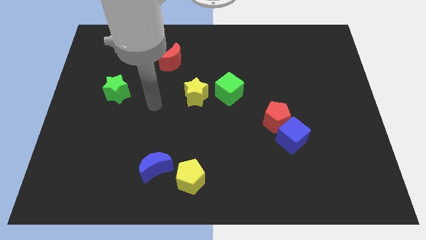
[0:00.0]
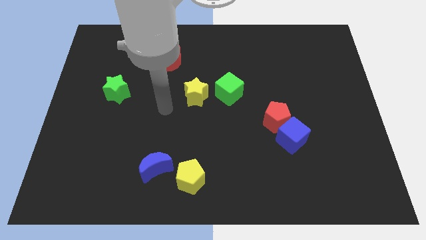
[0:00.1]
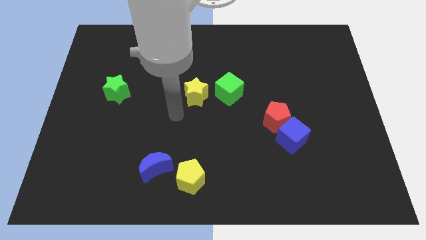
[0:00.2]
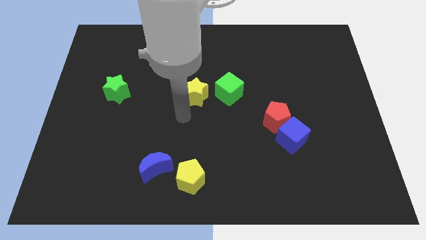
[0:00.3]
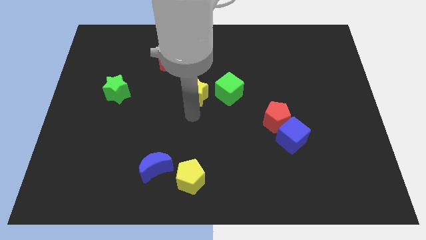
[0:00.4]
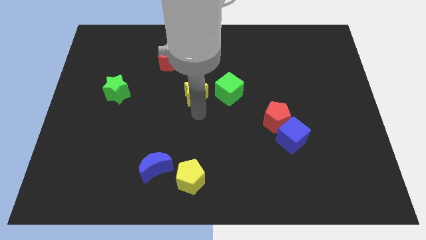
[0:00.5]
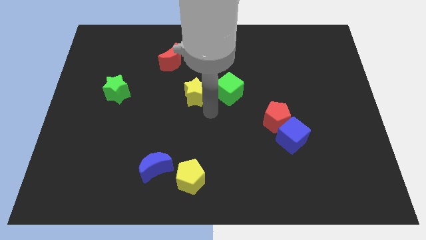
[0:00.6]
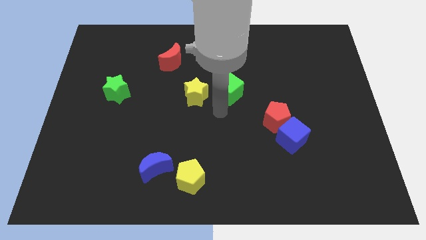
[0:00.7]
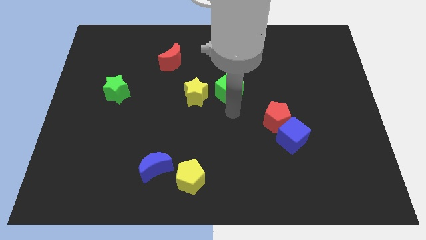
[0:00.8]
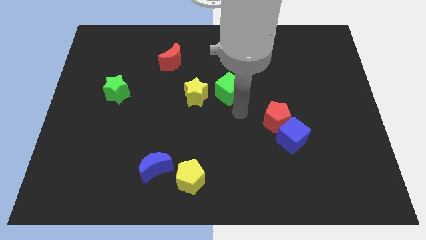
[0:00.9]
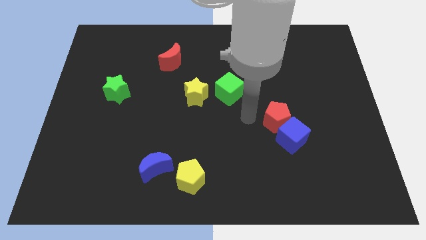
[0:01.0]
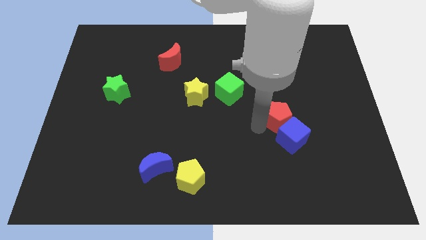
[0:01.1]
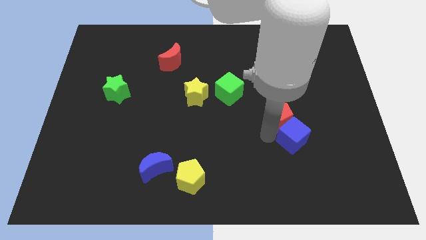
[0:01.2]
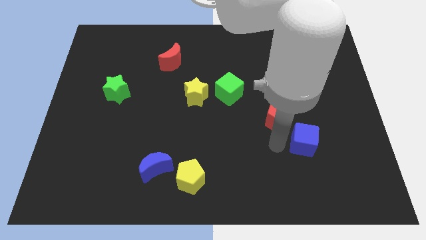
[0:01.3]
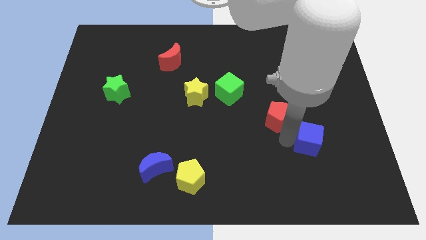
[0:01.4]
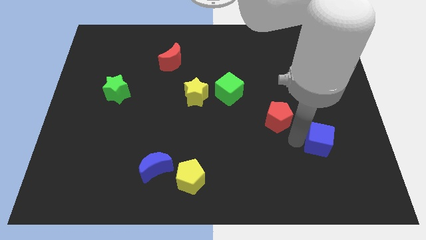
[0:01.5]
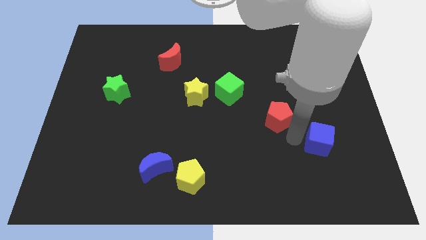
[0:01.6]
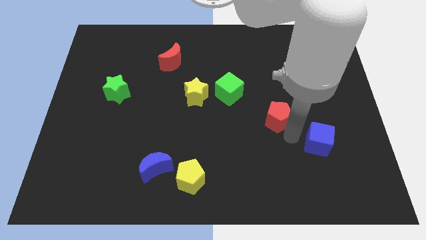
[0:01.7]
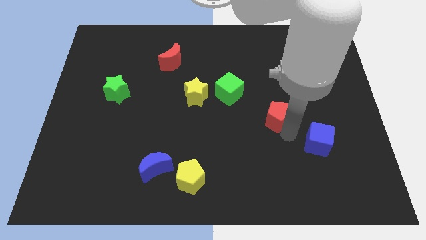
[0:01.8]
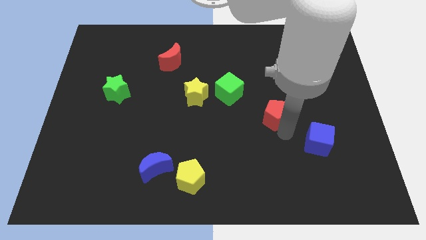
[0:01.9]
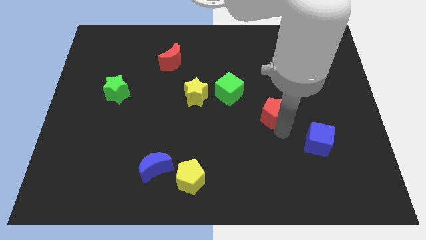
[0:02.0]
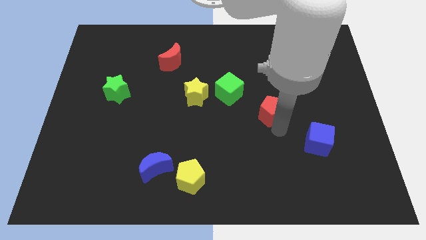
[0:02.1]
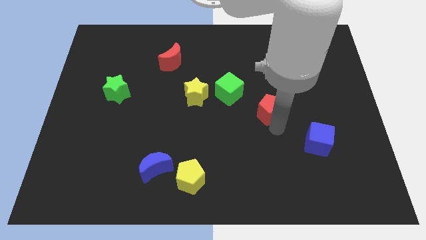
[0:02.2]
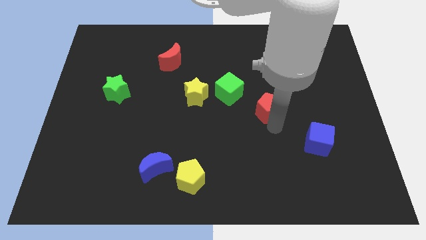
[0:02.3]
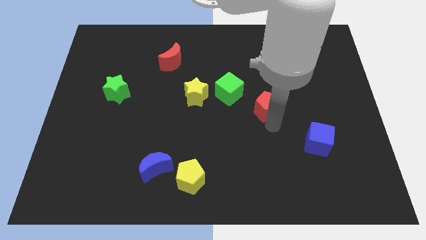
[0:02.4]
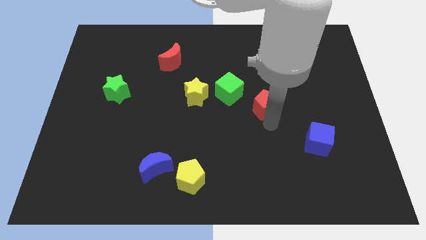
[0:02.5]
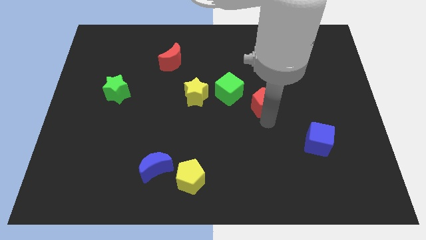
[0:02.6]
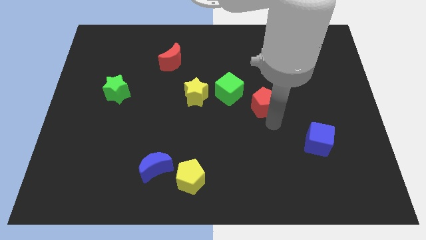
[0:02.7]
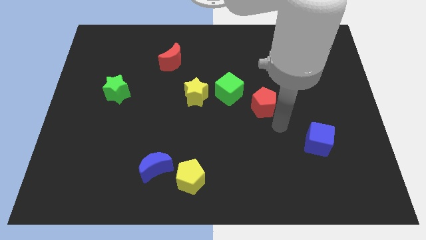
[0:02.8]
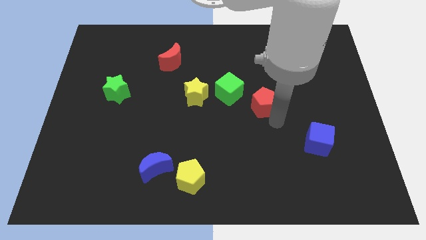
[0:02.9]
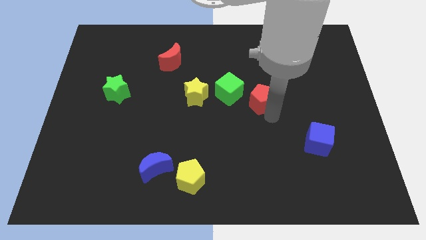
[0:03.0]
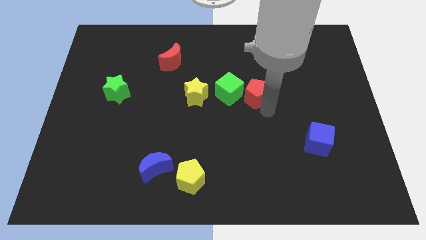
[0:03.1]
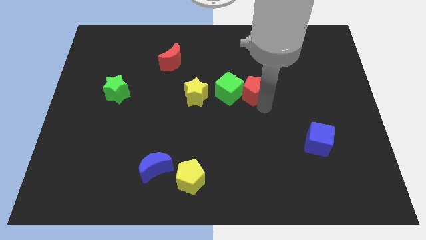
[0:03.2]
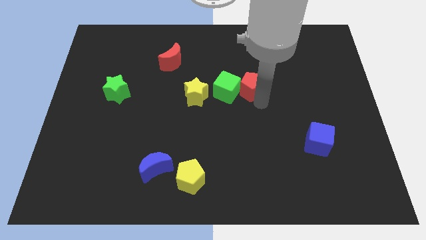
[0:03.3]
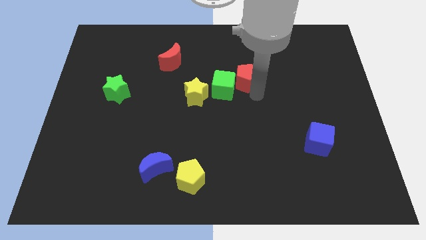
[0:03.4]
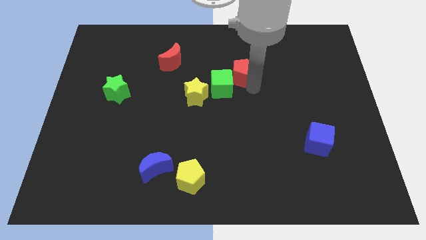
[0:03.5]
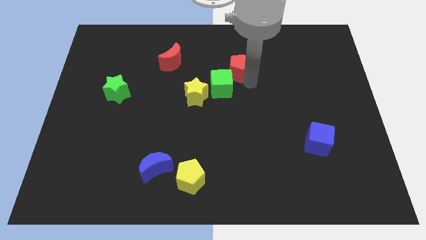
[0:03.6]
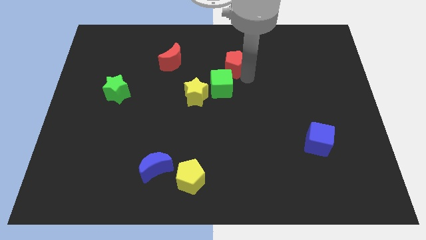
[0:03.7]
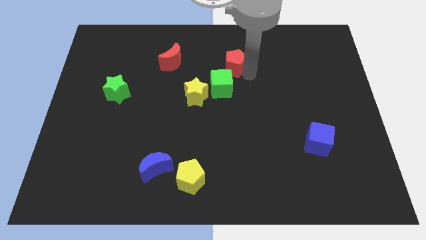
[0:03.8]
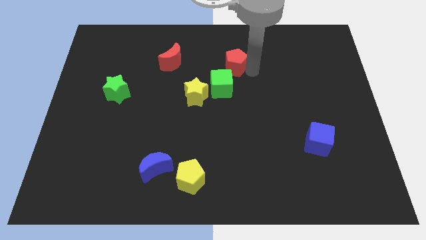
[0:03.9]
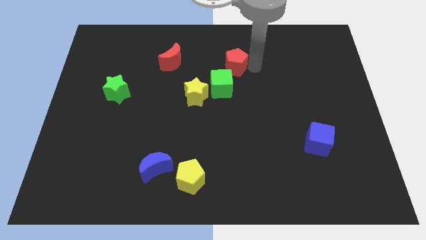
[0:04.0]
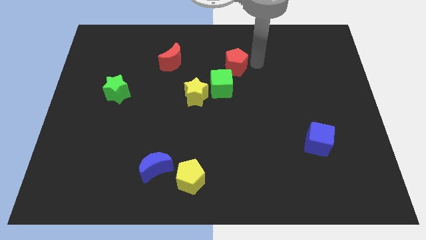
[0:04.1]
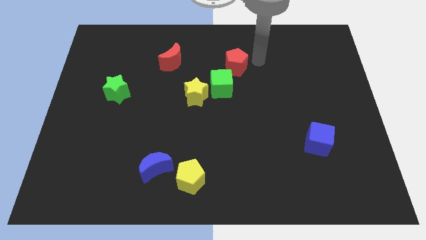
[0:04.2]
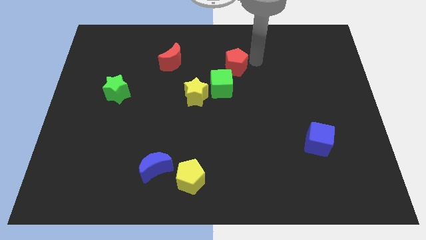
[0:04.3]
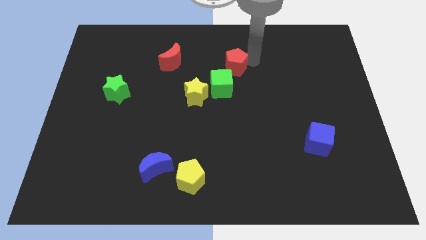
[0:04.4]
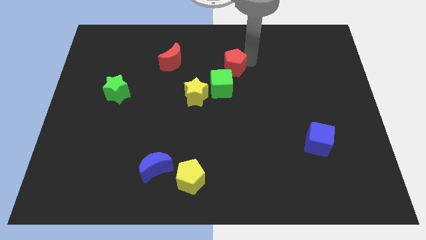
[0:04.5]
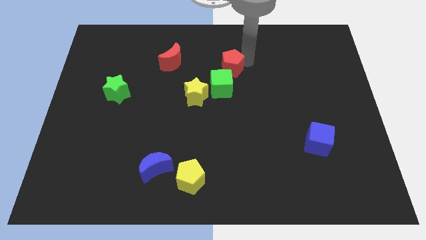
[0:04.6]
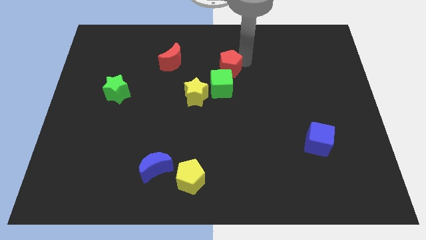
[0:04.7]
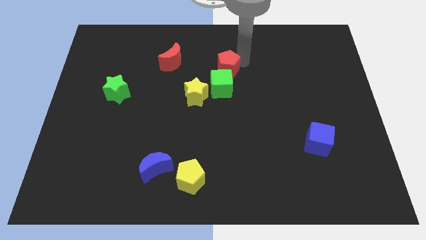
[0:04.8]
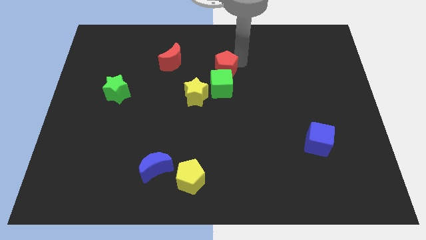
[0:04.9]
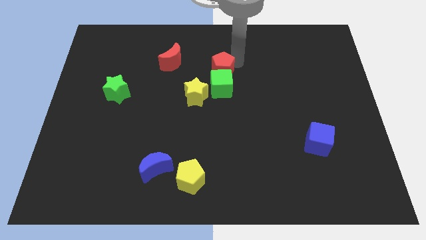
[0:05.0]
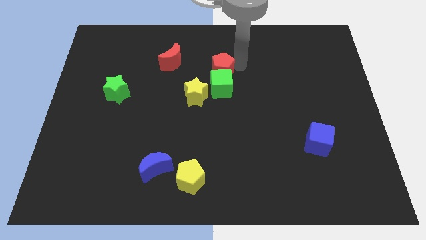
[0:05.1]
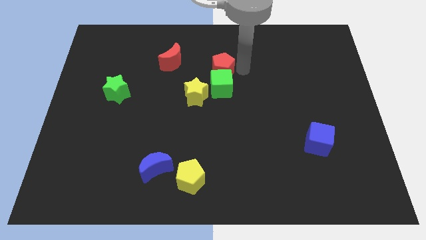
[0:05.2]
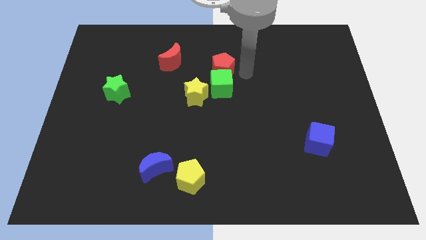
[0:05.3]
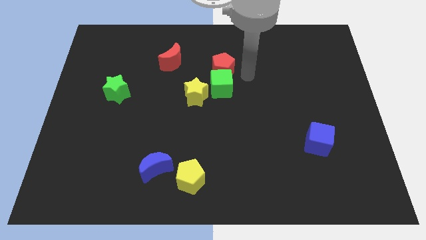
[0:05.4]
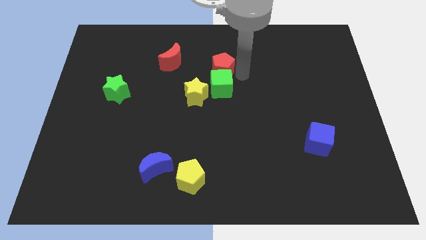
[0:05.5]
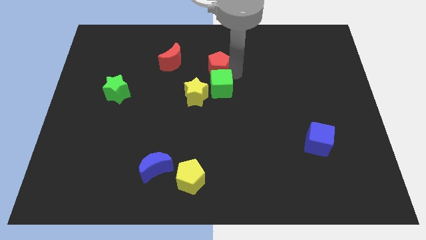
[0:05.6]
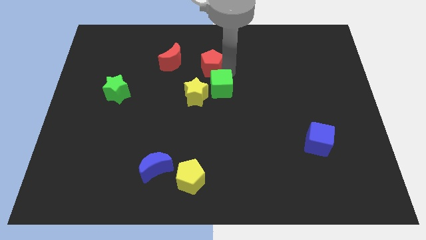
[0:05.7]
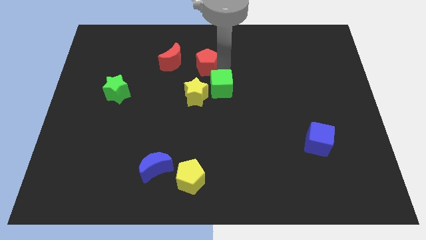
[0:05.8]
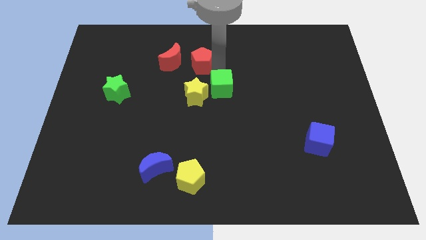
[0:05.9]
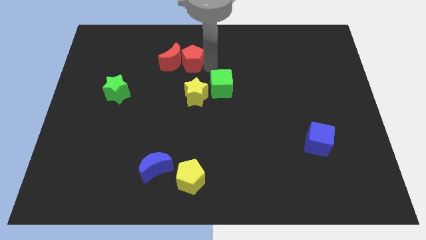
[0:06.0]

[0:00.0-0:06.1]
move the red pentagon to the red moon

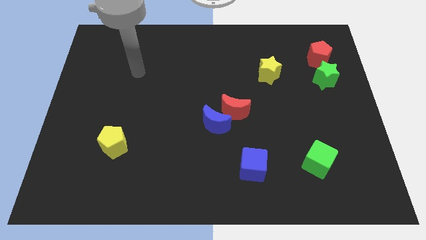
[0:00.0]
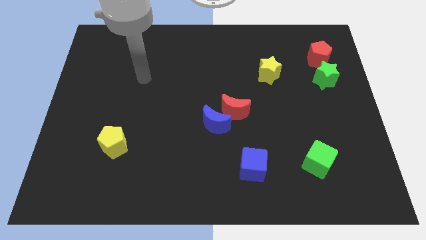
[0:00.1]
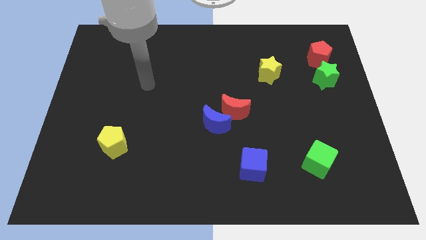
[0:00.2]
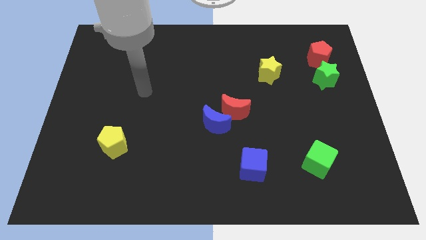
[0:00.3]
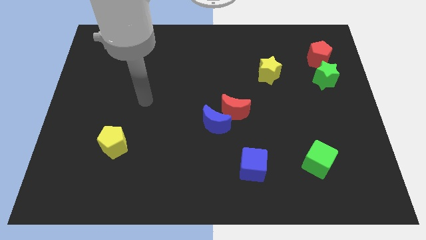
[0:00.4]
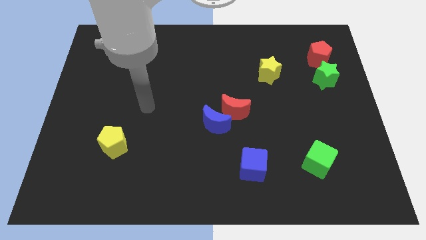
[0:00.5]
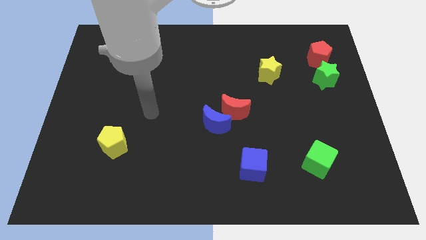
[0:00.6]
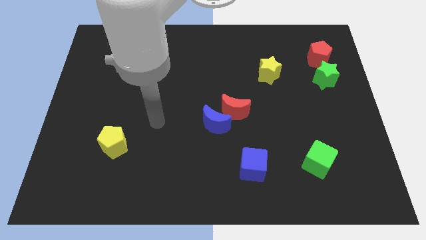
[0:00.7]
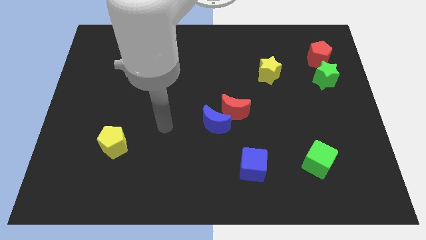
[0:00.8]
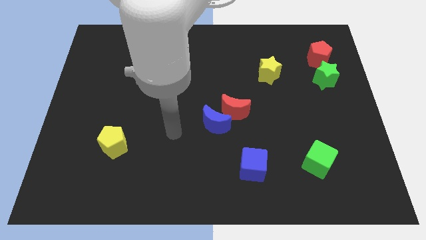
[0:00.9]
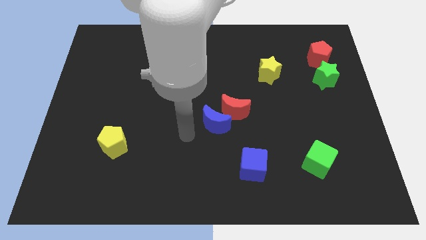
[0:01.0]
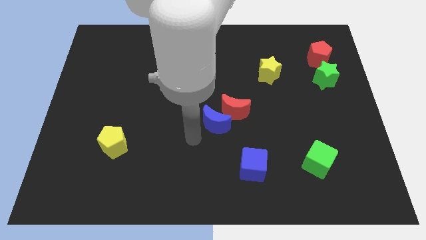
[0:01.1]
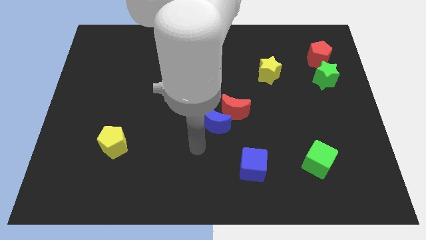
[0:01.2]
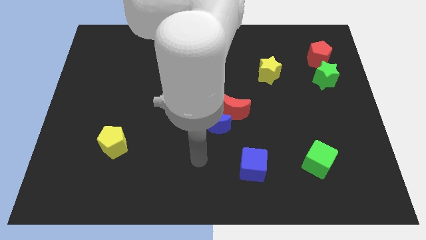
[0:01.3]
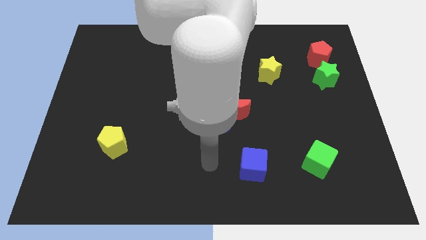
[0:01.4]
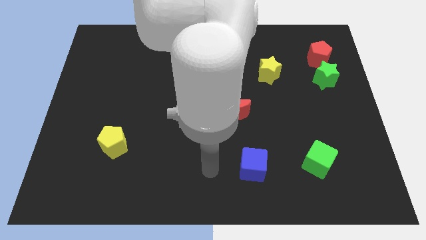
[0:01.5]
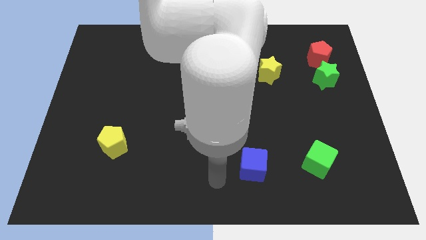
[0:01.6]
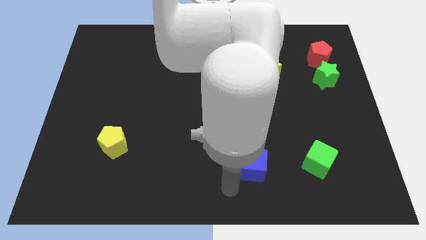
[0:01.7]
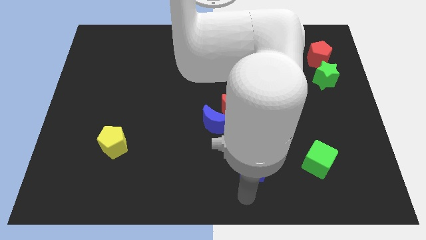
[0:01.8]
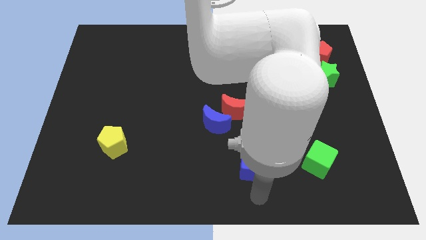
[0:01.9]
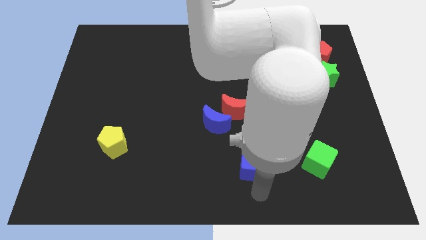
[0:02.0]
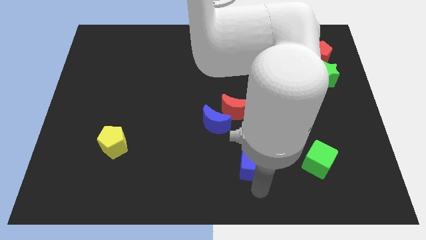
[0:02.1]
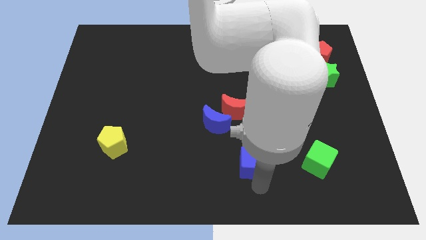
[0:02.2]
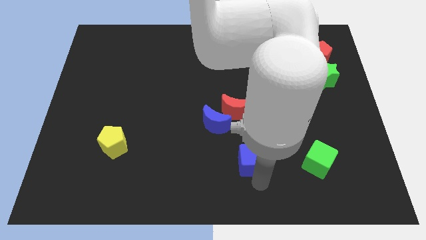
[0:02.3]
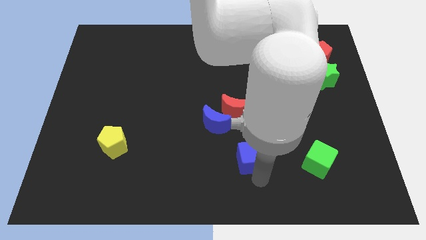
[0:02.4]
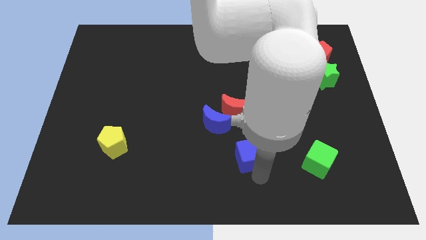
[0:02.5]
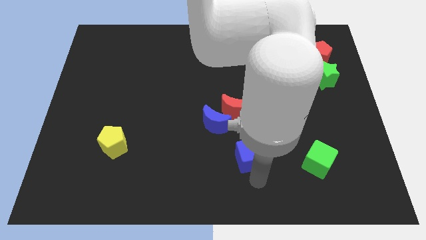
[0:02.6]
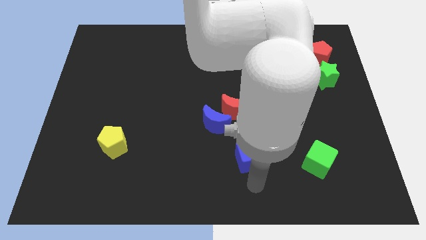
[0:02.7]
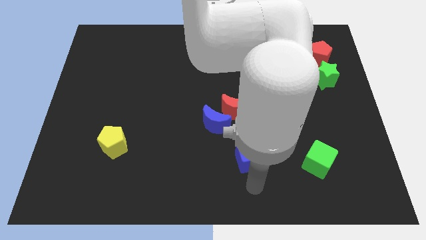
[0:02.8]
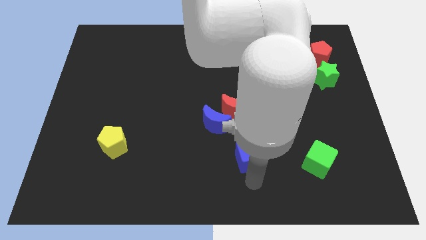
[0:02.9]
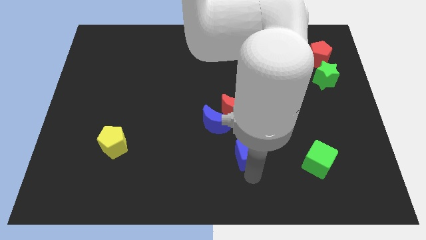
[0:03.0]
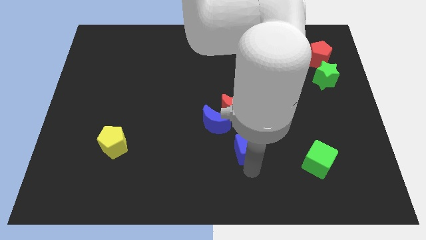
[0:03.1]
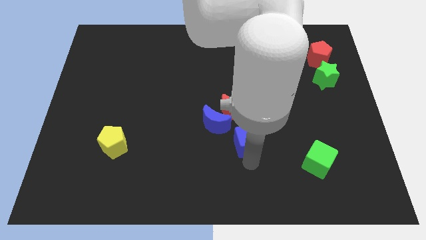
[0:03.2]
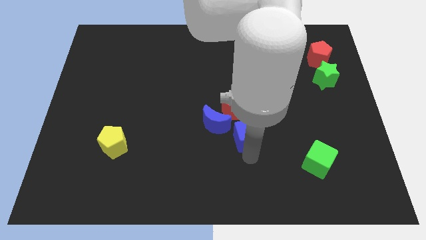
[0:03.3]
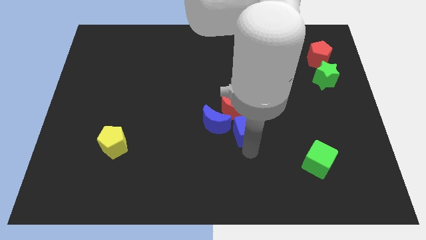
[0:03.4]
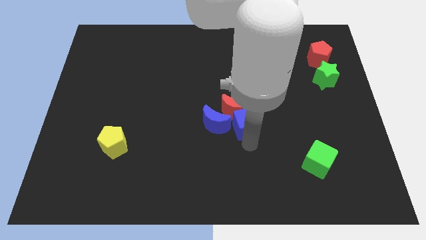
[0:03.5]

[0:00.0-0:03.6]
push the blue cube towards the red moon
